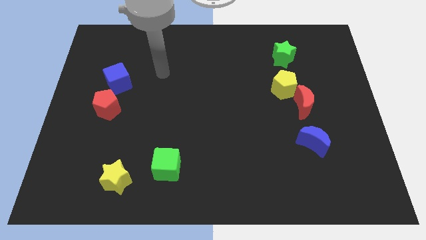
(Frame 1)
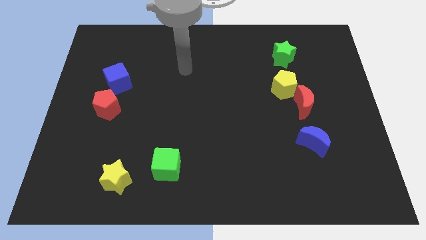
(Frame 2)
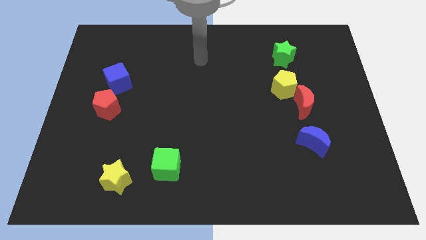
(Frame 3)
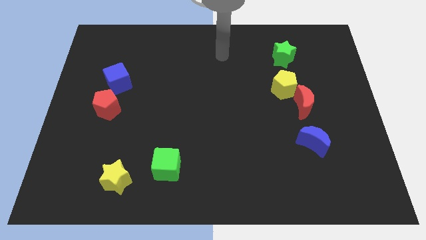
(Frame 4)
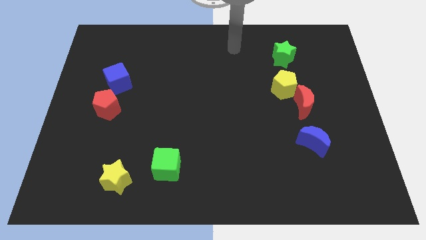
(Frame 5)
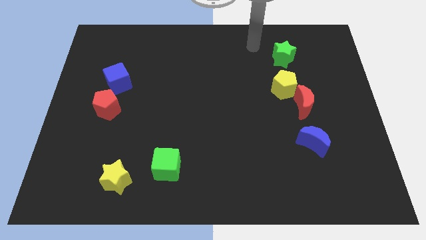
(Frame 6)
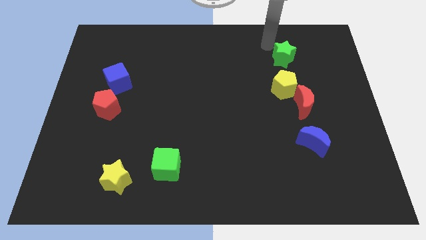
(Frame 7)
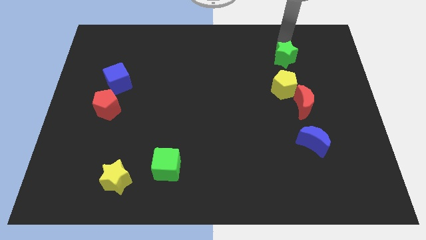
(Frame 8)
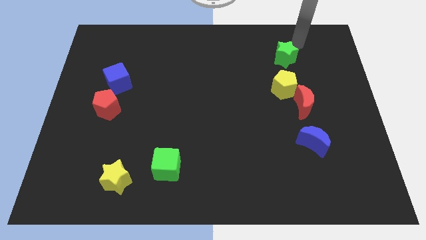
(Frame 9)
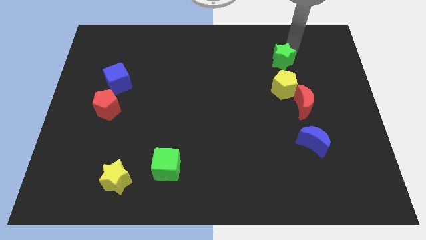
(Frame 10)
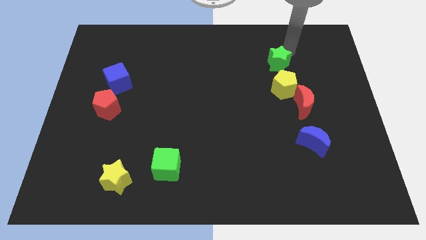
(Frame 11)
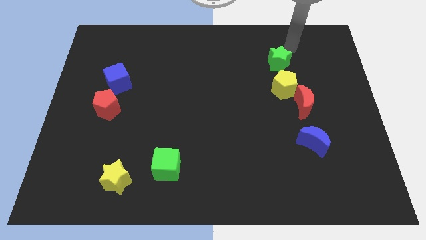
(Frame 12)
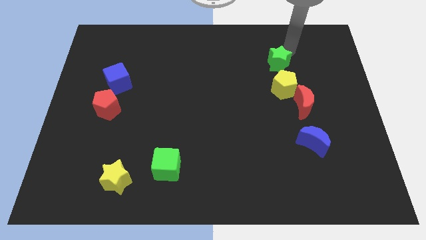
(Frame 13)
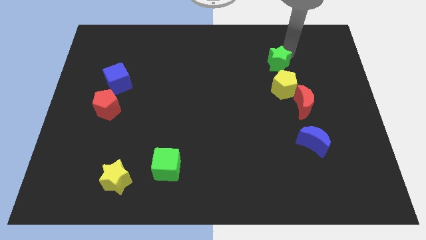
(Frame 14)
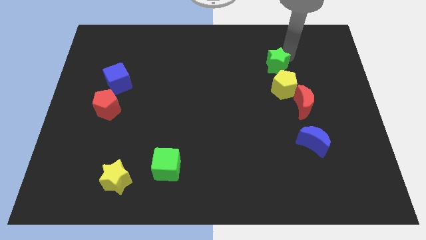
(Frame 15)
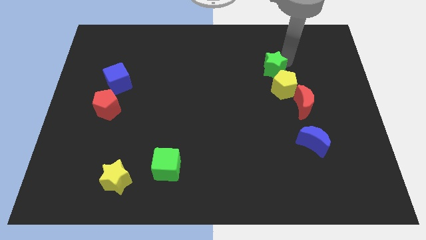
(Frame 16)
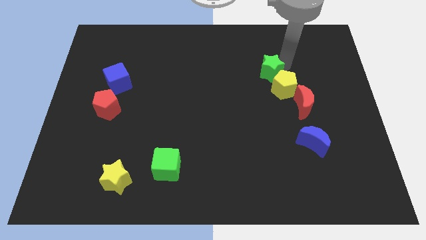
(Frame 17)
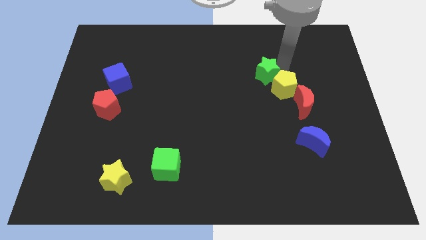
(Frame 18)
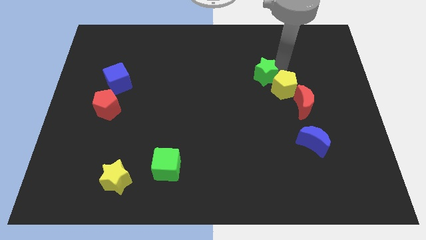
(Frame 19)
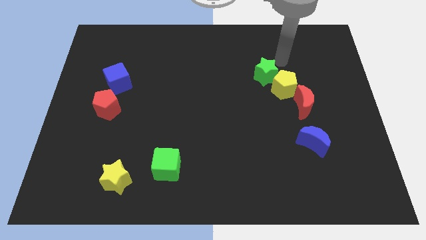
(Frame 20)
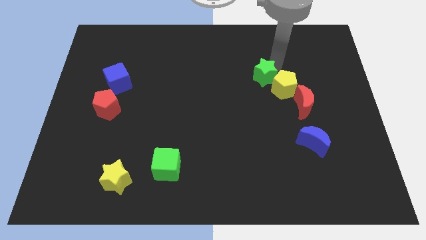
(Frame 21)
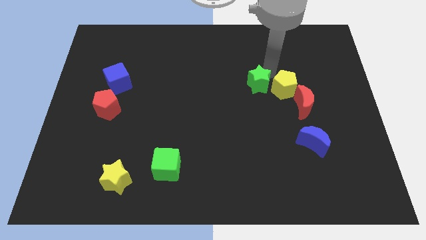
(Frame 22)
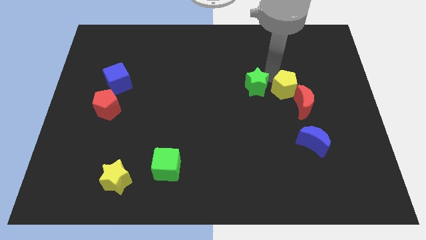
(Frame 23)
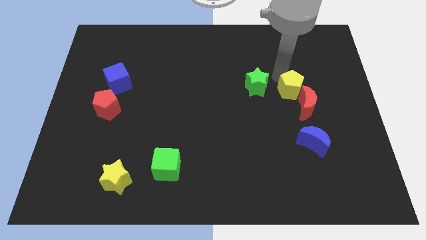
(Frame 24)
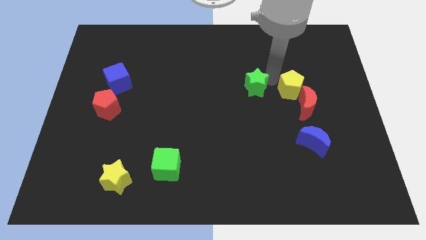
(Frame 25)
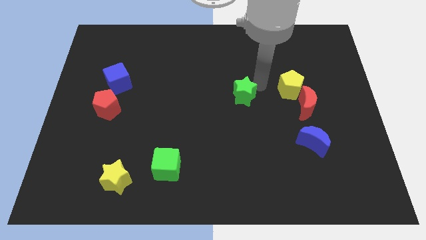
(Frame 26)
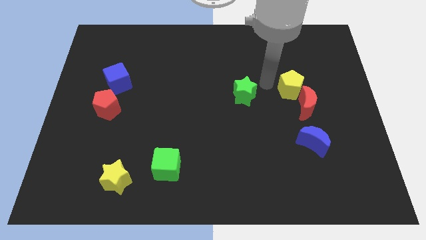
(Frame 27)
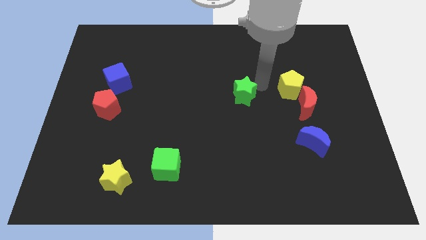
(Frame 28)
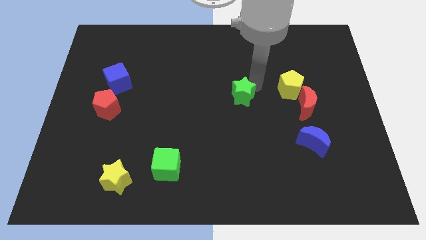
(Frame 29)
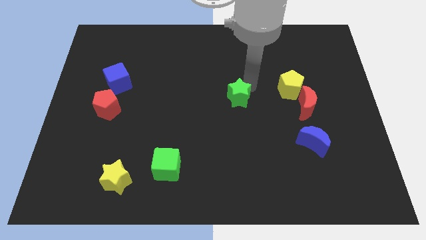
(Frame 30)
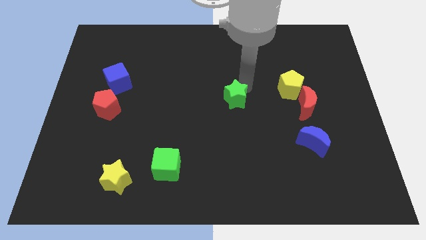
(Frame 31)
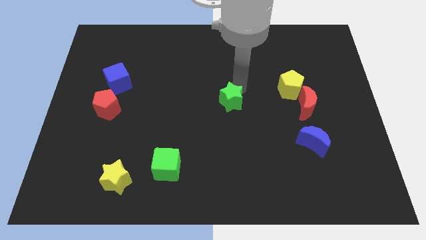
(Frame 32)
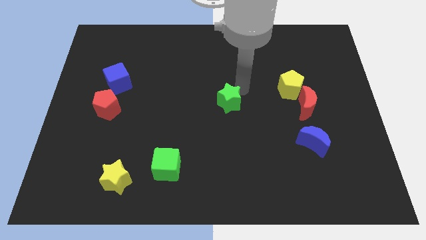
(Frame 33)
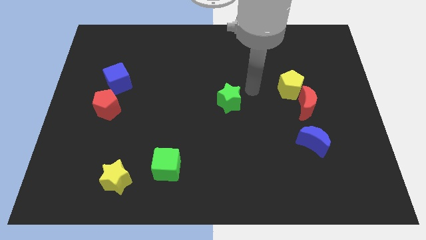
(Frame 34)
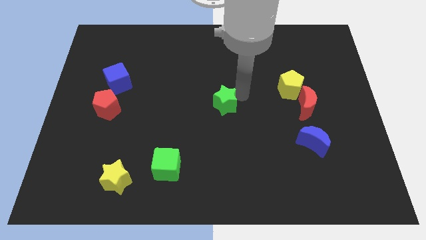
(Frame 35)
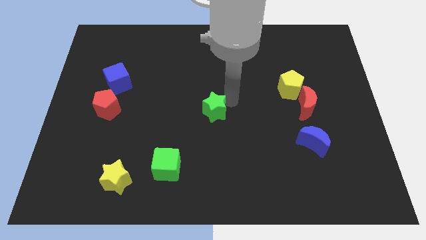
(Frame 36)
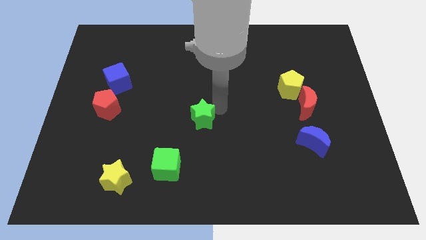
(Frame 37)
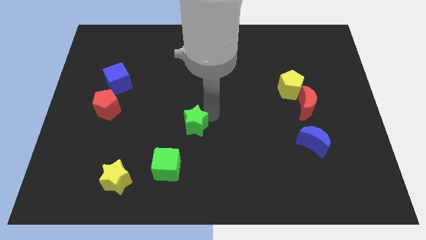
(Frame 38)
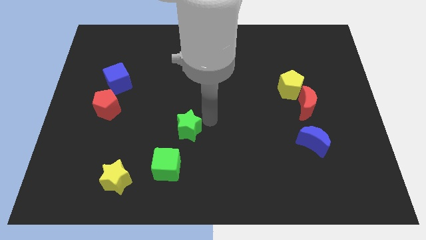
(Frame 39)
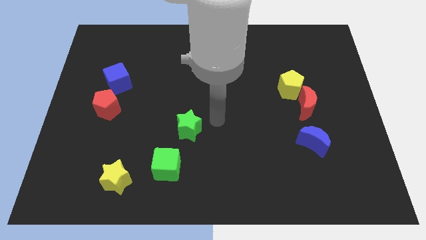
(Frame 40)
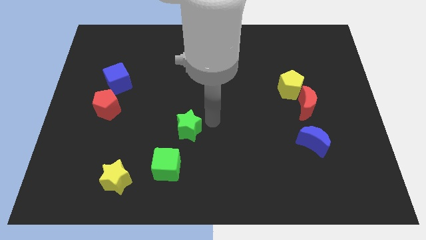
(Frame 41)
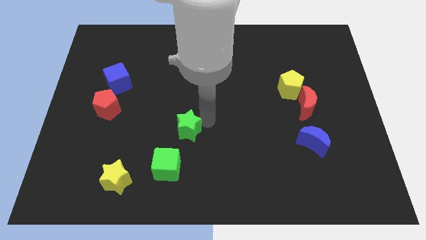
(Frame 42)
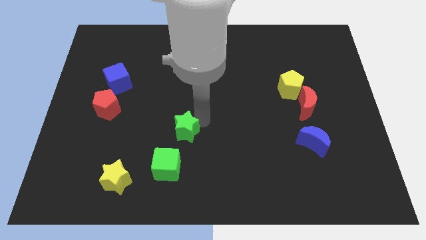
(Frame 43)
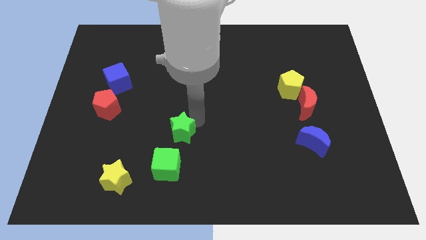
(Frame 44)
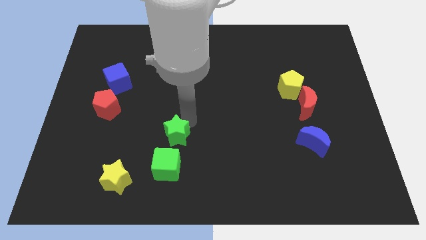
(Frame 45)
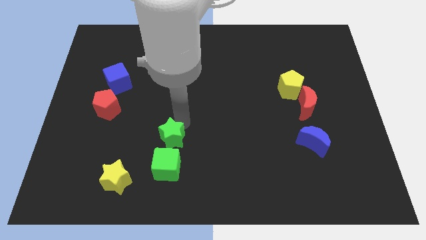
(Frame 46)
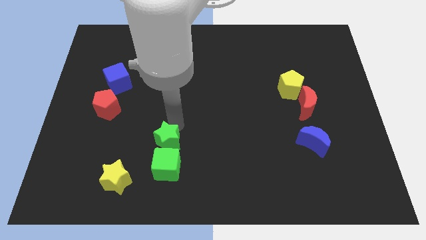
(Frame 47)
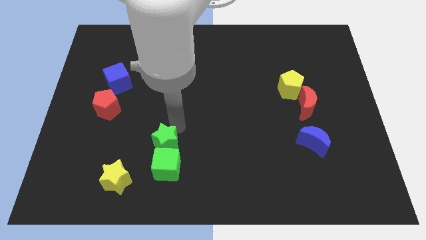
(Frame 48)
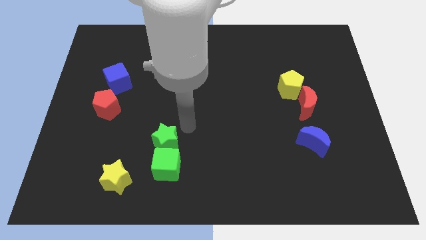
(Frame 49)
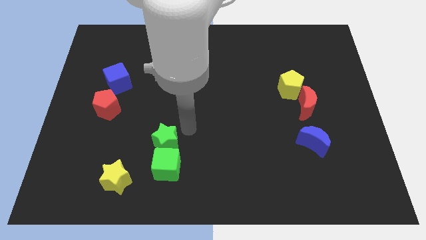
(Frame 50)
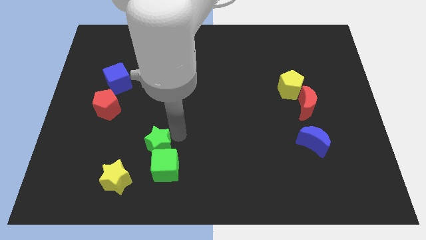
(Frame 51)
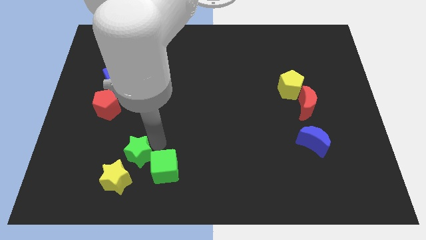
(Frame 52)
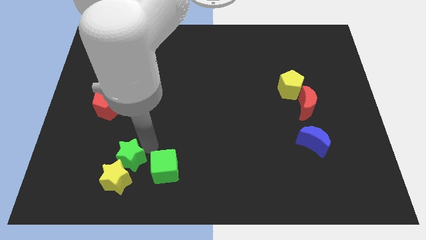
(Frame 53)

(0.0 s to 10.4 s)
move the green star towards the yellow star

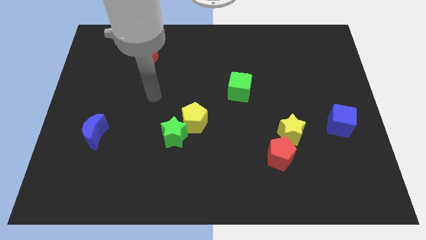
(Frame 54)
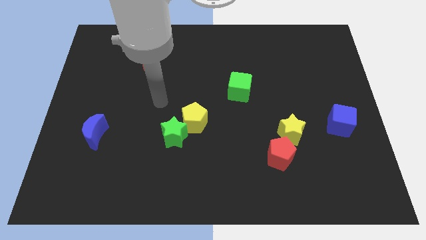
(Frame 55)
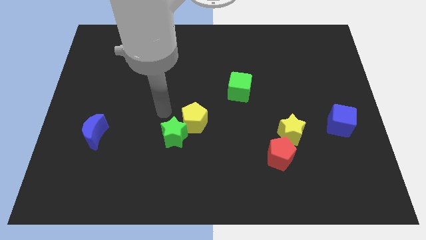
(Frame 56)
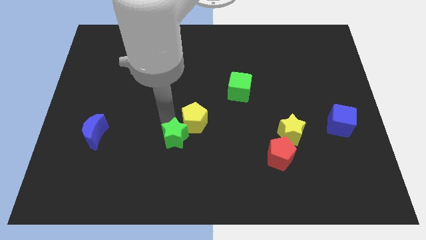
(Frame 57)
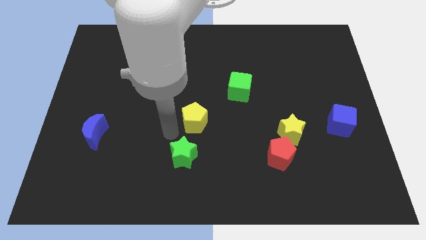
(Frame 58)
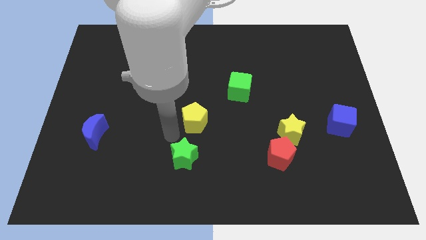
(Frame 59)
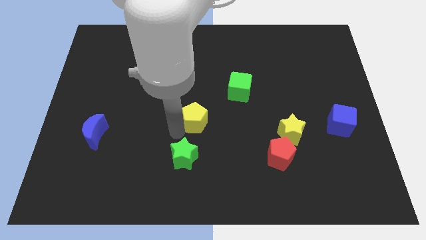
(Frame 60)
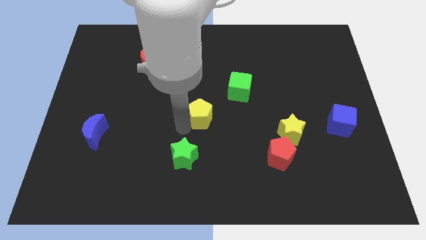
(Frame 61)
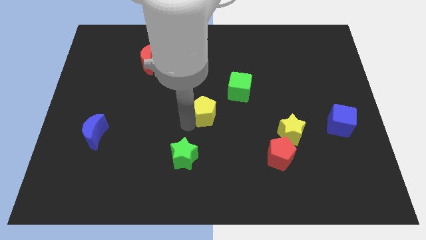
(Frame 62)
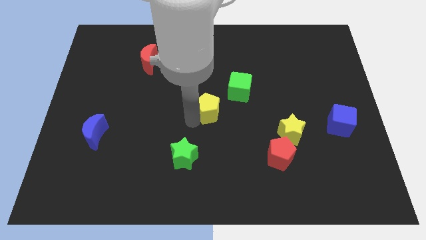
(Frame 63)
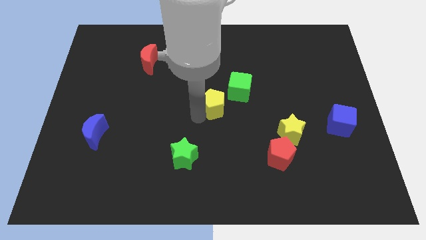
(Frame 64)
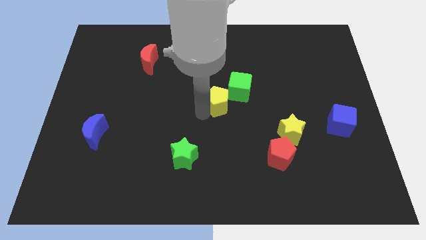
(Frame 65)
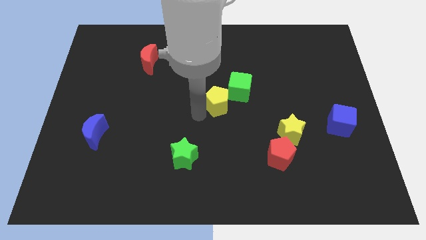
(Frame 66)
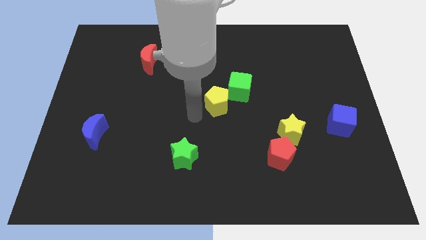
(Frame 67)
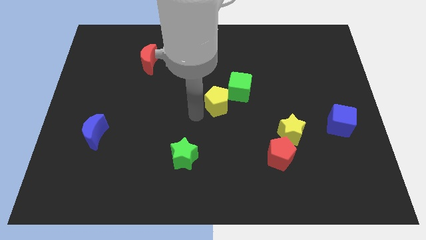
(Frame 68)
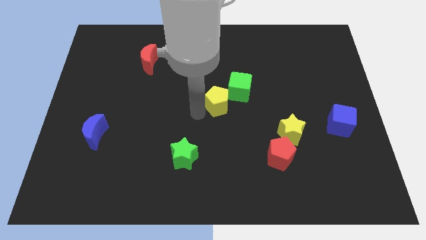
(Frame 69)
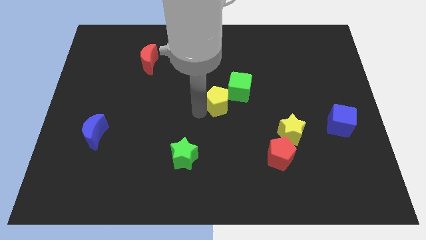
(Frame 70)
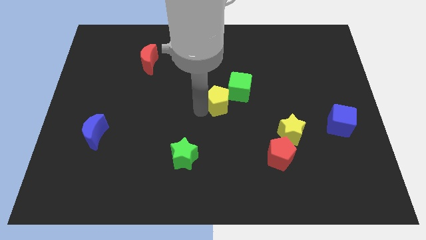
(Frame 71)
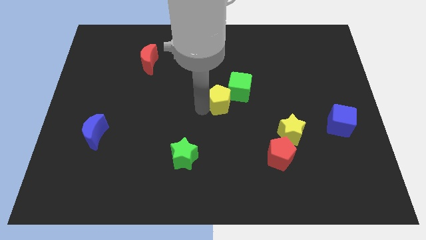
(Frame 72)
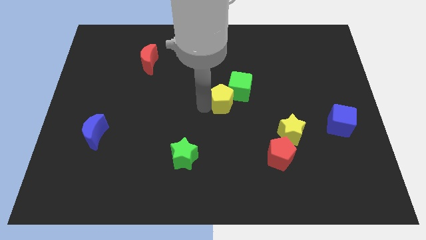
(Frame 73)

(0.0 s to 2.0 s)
put the yellow pentagon next to the green cube

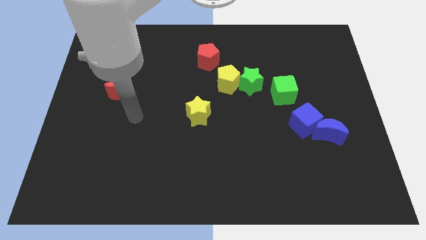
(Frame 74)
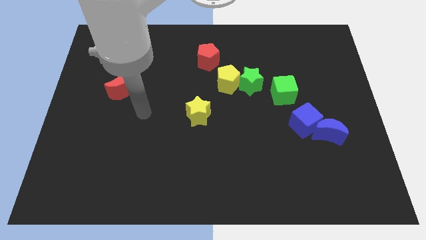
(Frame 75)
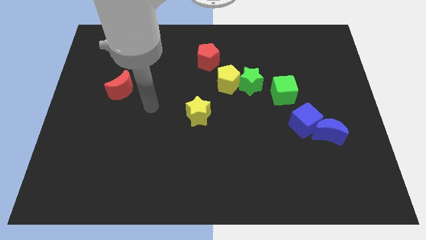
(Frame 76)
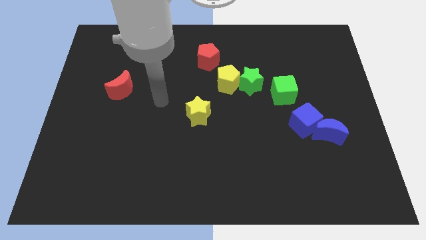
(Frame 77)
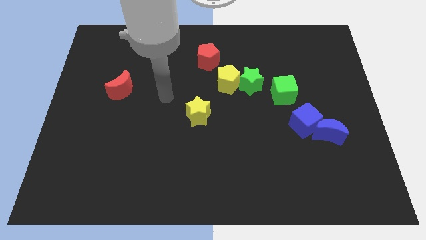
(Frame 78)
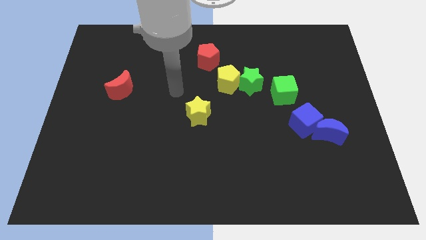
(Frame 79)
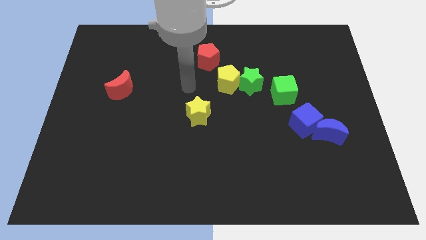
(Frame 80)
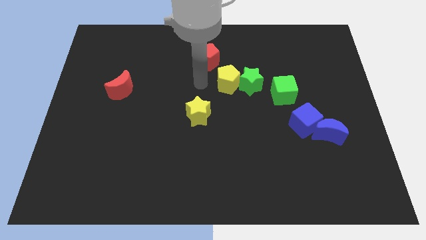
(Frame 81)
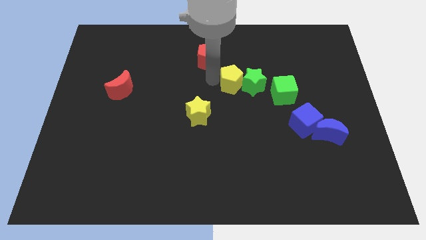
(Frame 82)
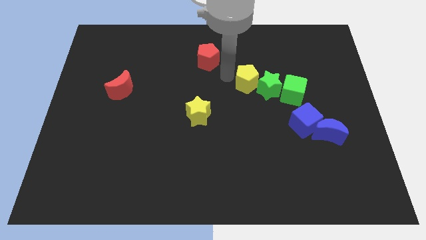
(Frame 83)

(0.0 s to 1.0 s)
slide the green star close to the green cube
